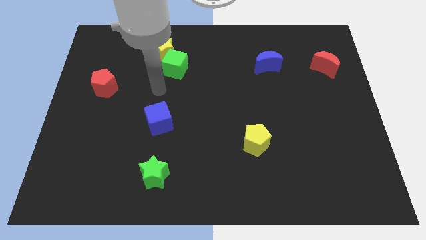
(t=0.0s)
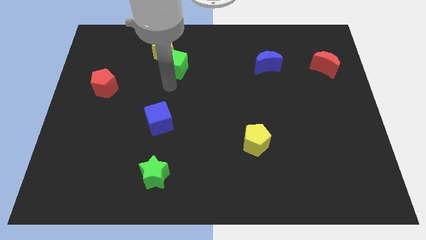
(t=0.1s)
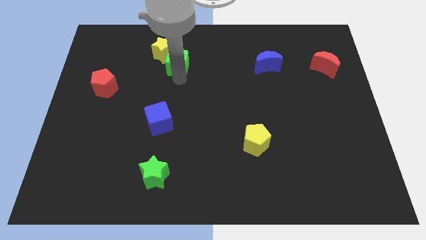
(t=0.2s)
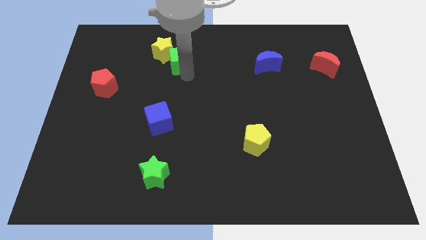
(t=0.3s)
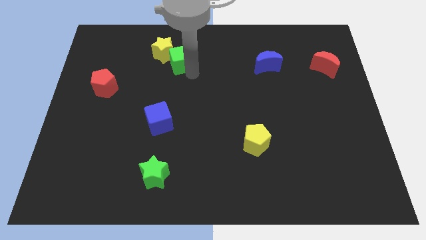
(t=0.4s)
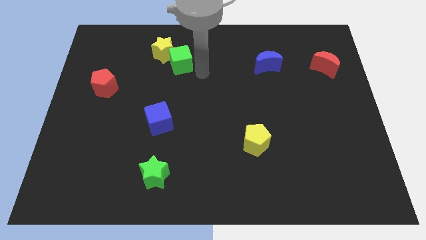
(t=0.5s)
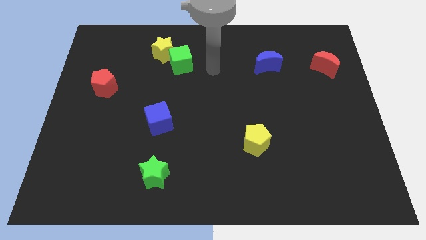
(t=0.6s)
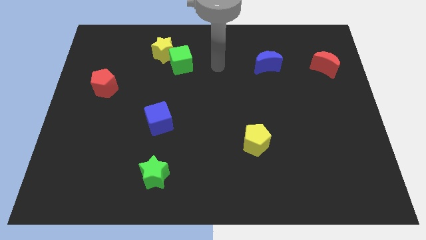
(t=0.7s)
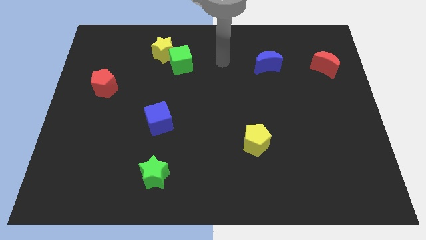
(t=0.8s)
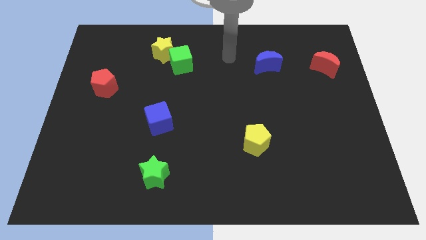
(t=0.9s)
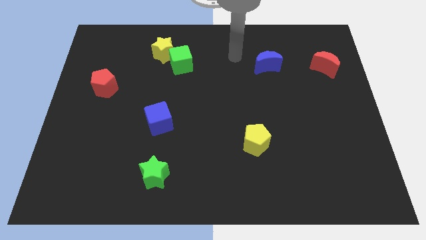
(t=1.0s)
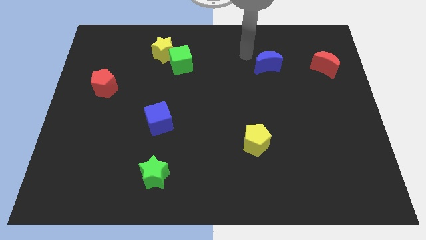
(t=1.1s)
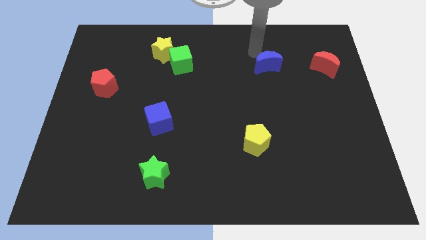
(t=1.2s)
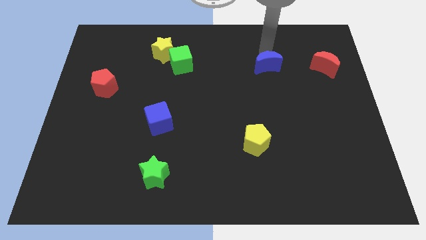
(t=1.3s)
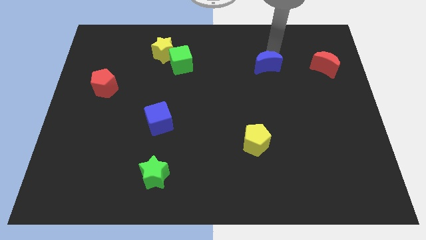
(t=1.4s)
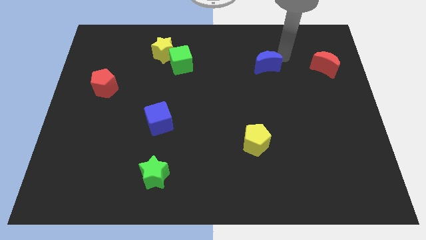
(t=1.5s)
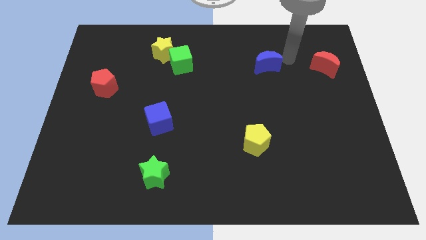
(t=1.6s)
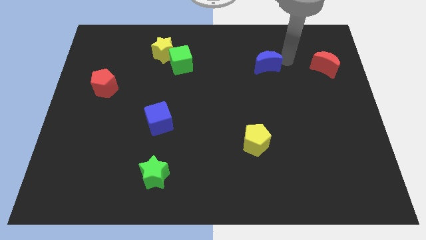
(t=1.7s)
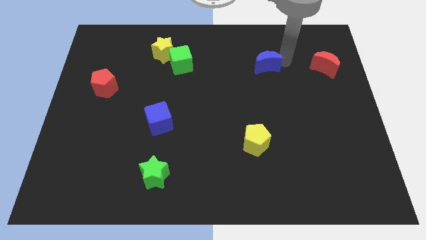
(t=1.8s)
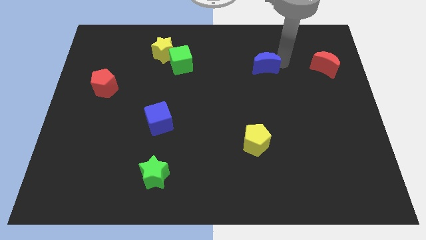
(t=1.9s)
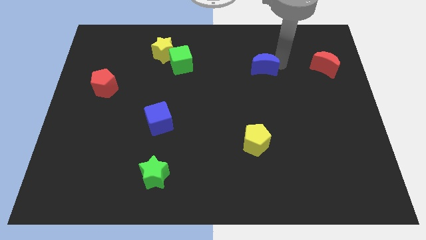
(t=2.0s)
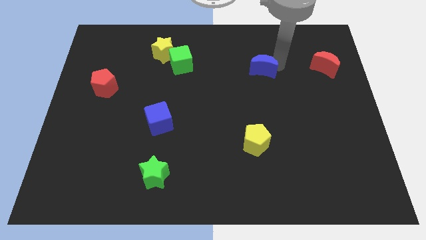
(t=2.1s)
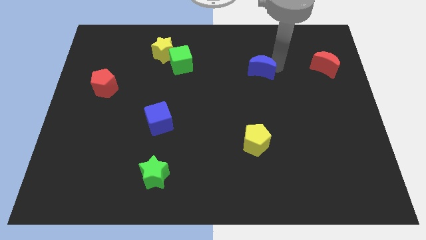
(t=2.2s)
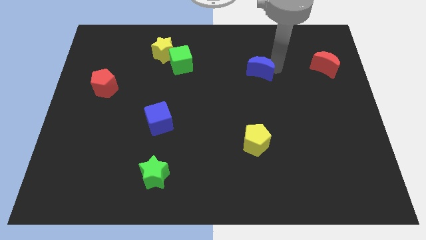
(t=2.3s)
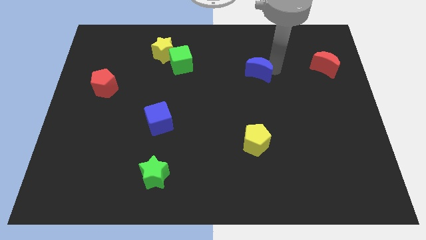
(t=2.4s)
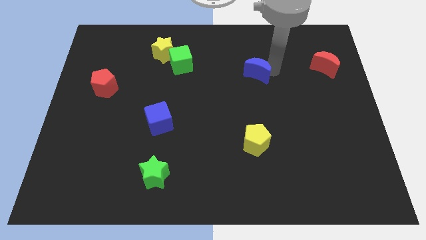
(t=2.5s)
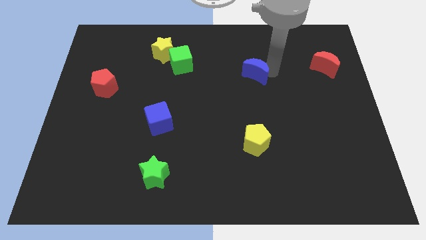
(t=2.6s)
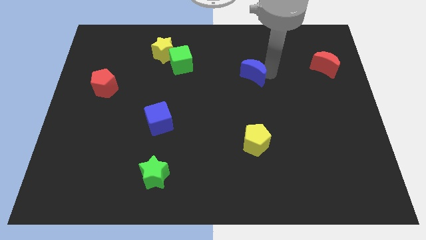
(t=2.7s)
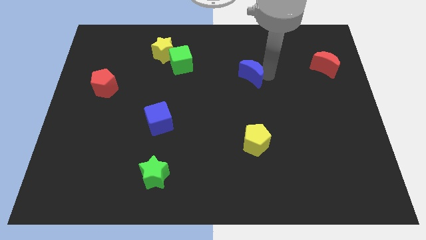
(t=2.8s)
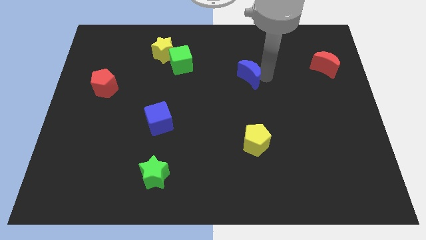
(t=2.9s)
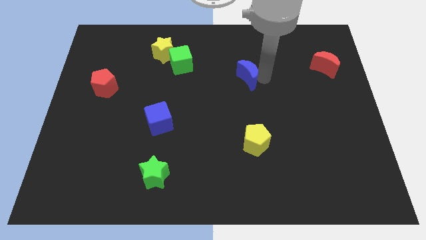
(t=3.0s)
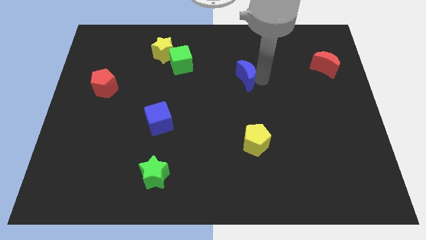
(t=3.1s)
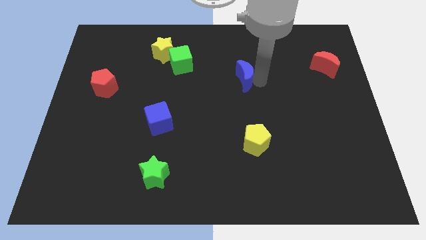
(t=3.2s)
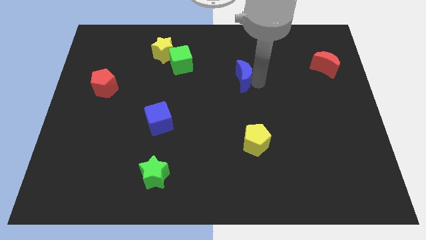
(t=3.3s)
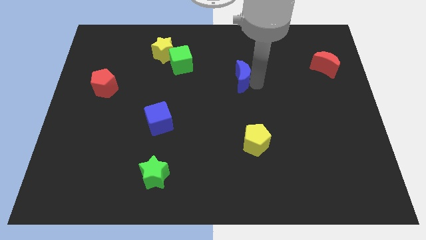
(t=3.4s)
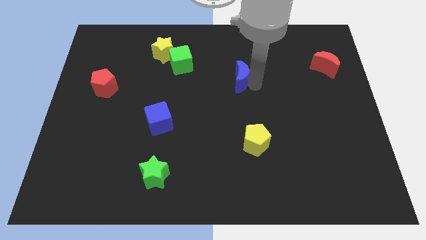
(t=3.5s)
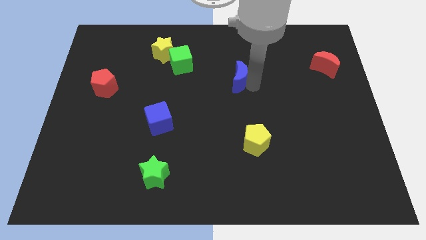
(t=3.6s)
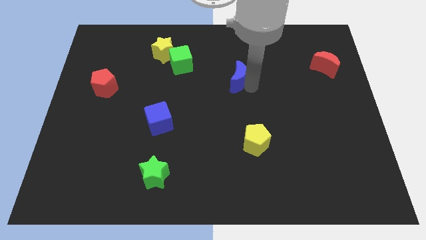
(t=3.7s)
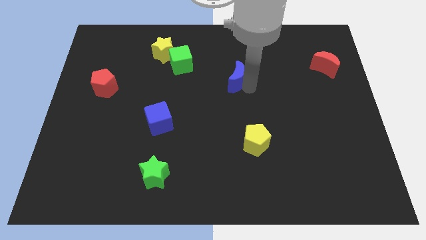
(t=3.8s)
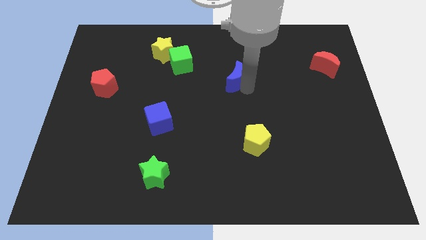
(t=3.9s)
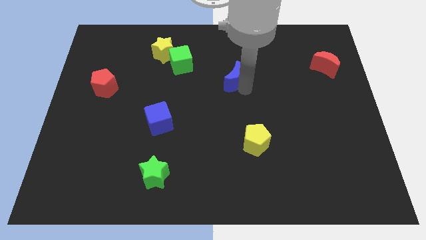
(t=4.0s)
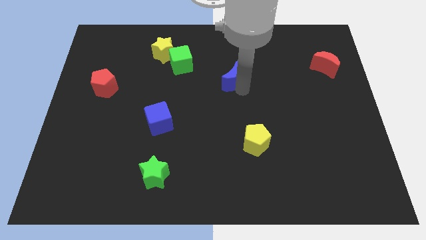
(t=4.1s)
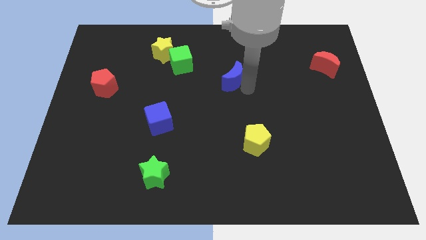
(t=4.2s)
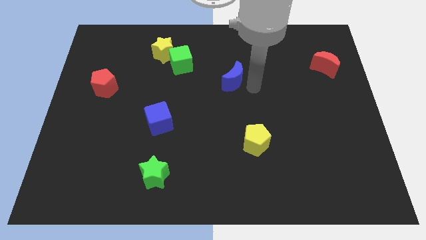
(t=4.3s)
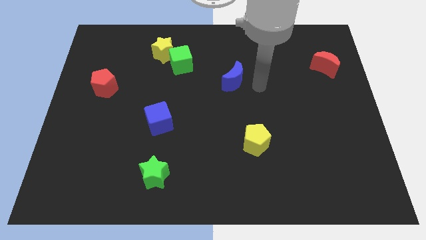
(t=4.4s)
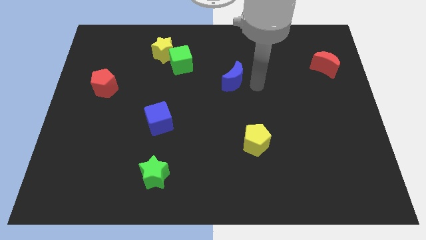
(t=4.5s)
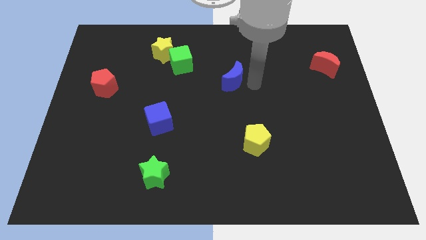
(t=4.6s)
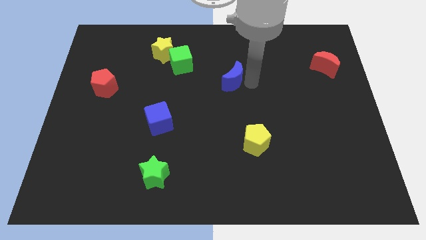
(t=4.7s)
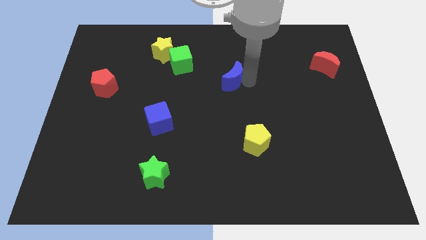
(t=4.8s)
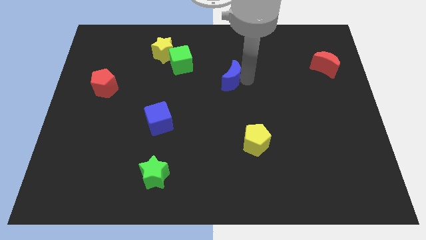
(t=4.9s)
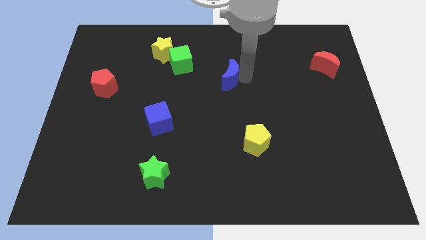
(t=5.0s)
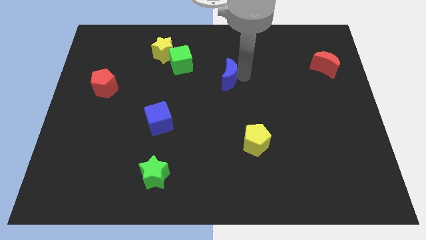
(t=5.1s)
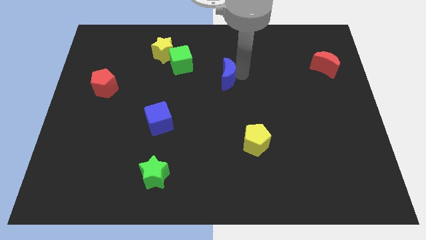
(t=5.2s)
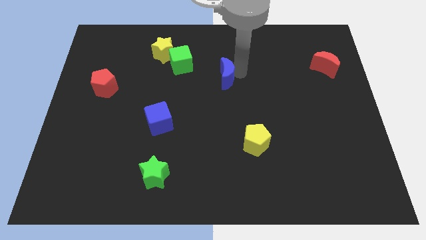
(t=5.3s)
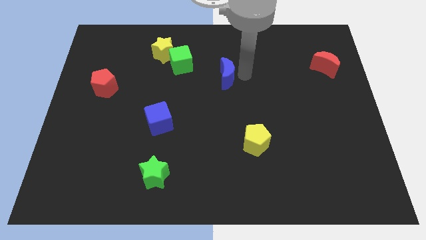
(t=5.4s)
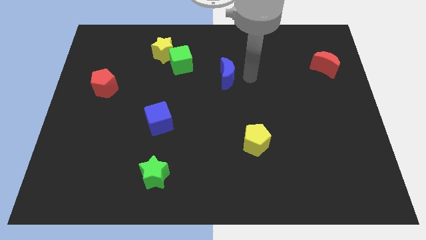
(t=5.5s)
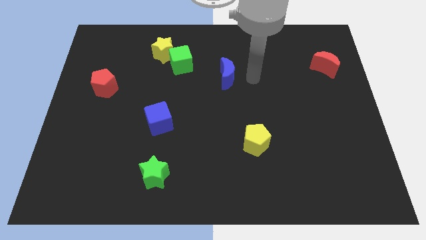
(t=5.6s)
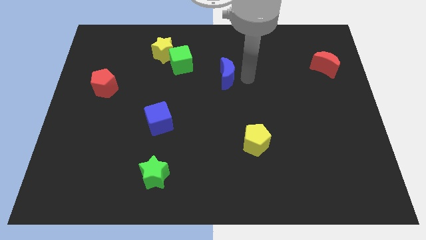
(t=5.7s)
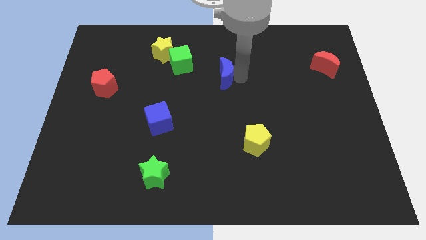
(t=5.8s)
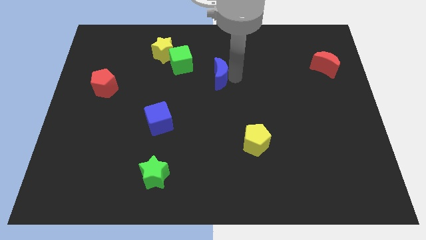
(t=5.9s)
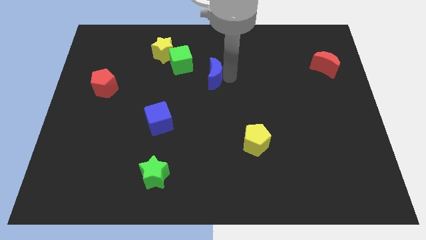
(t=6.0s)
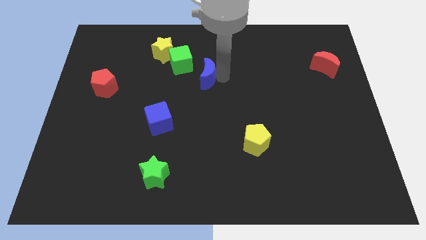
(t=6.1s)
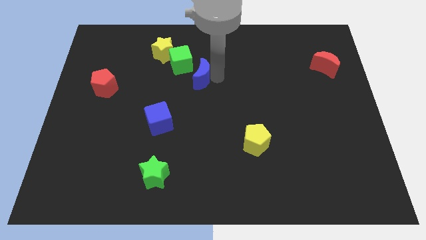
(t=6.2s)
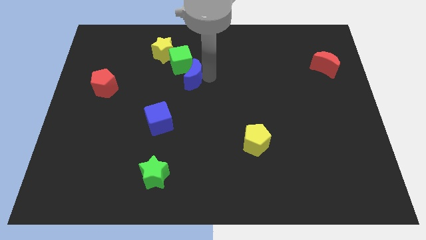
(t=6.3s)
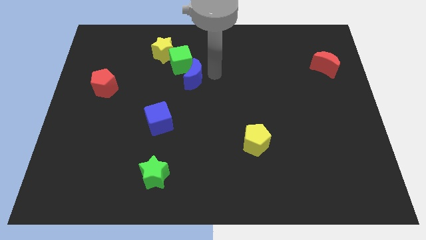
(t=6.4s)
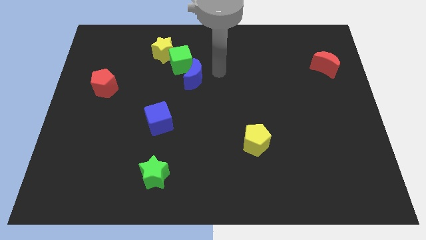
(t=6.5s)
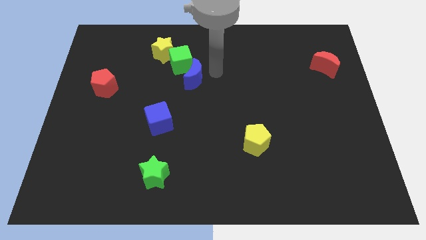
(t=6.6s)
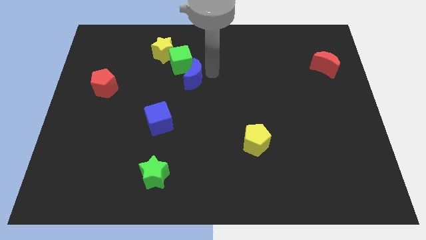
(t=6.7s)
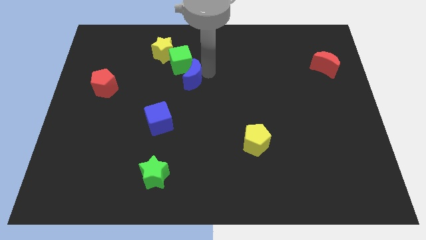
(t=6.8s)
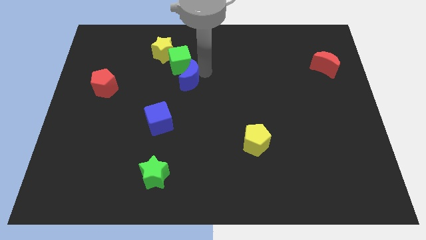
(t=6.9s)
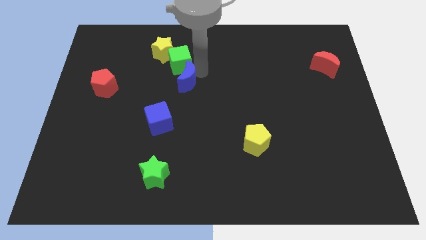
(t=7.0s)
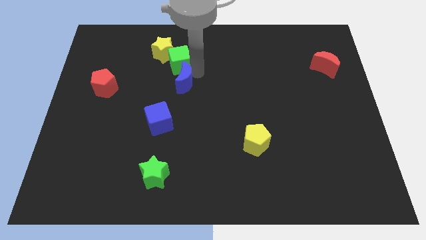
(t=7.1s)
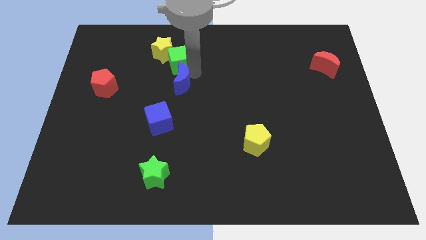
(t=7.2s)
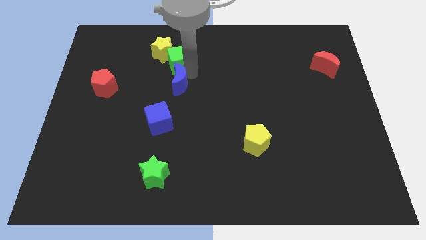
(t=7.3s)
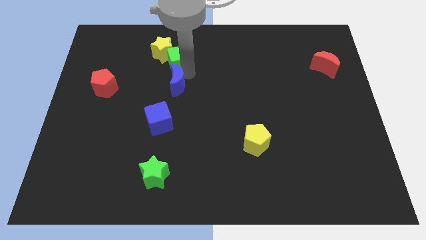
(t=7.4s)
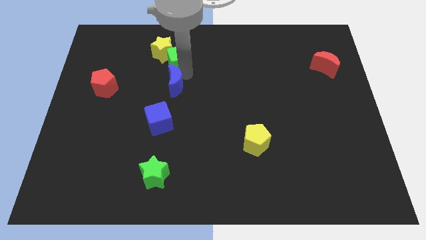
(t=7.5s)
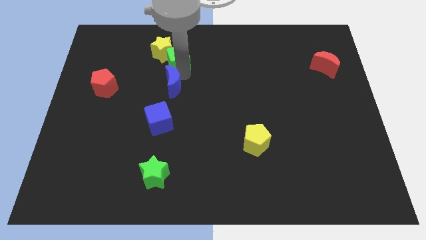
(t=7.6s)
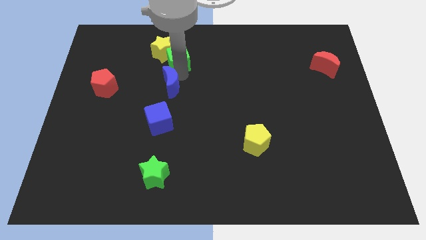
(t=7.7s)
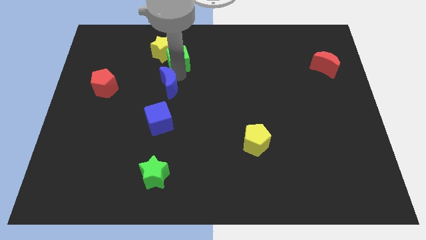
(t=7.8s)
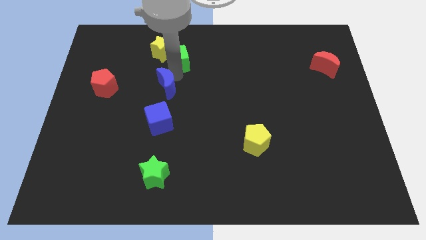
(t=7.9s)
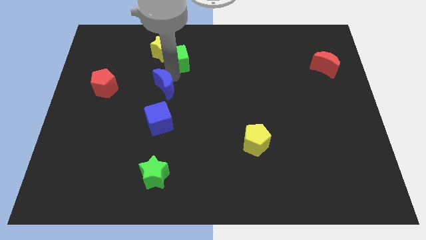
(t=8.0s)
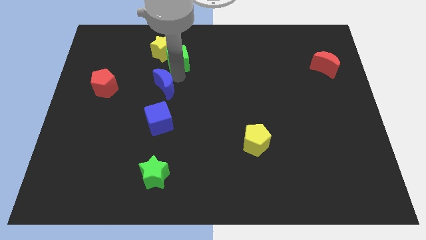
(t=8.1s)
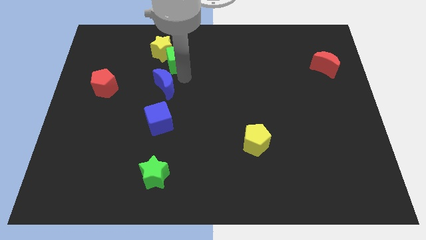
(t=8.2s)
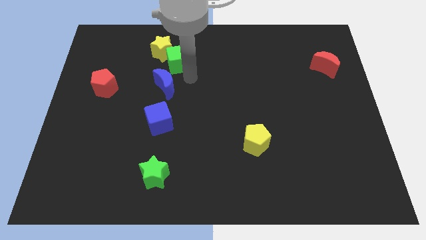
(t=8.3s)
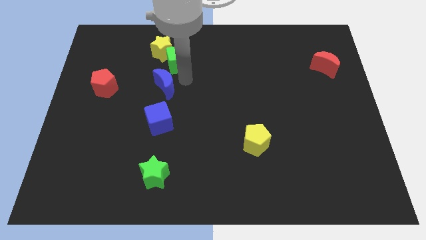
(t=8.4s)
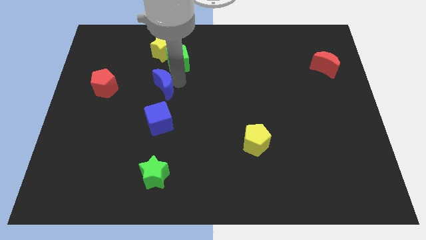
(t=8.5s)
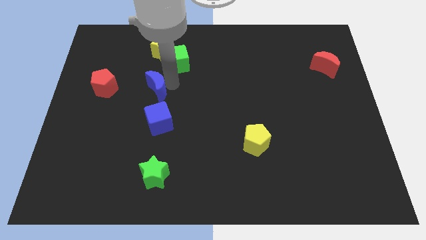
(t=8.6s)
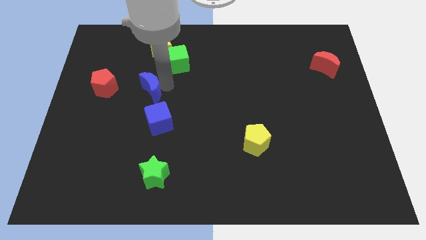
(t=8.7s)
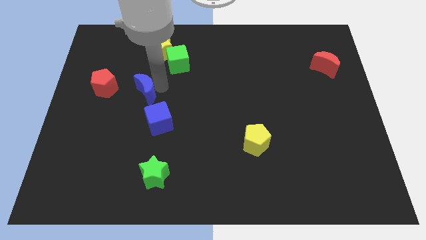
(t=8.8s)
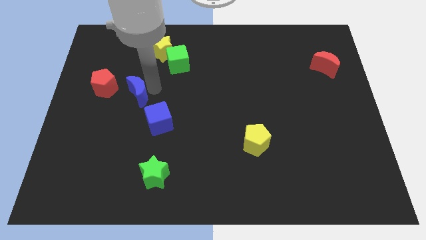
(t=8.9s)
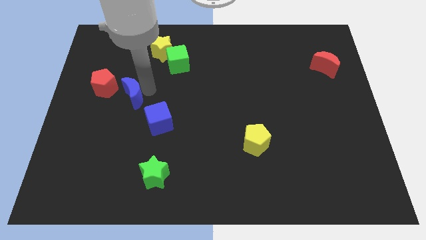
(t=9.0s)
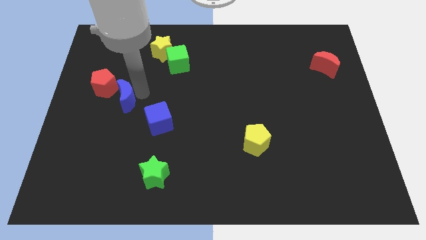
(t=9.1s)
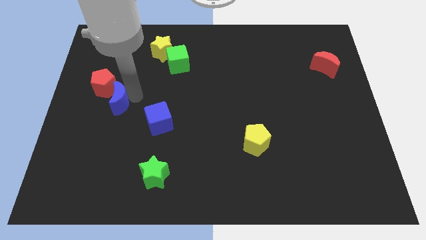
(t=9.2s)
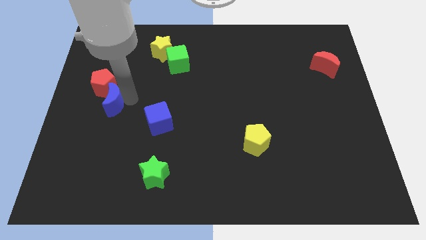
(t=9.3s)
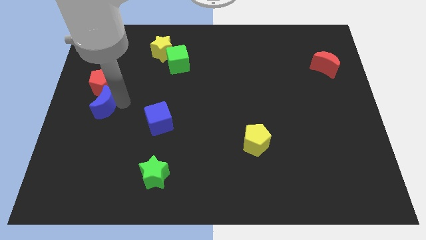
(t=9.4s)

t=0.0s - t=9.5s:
push the blue moon to the center left
